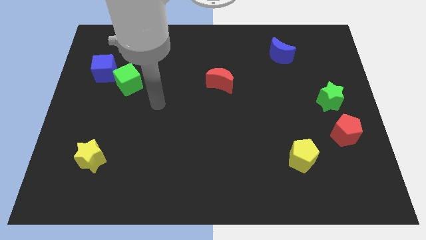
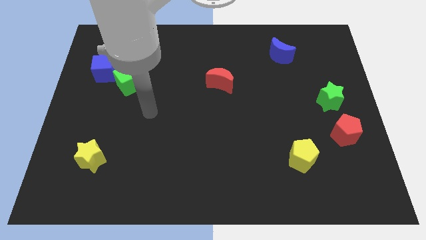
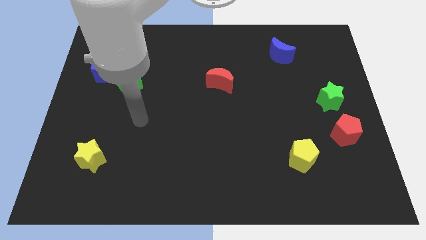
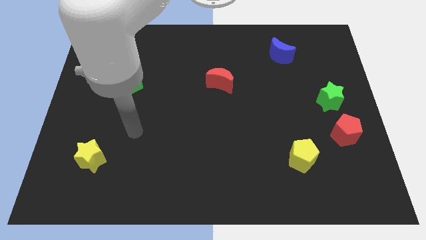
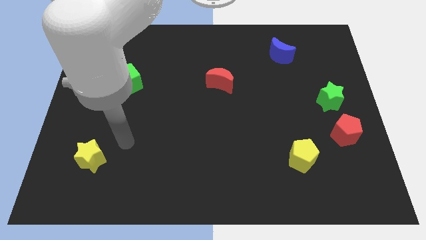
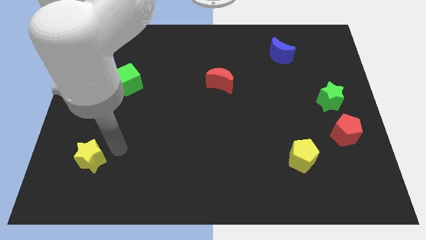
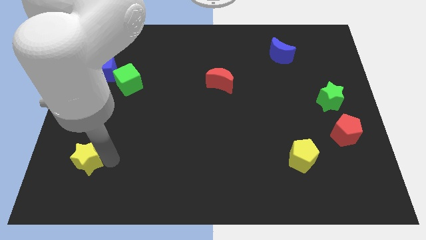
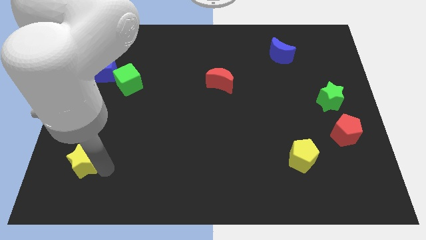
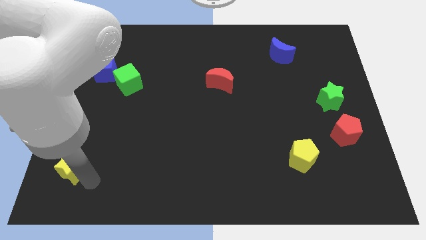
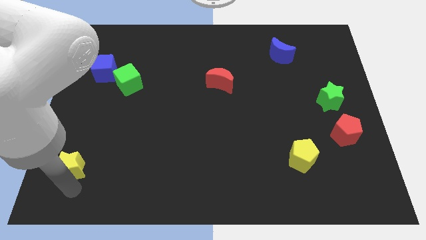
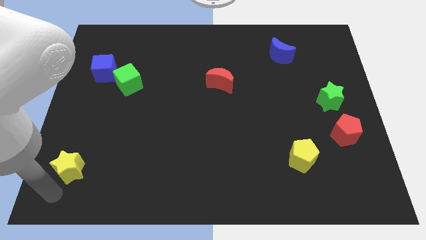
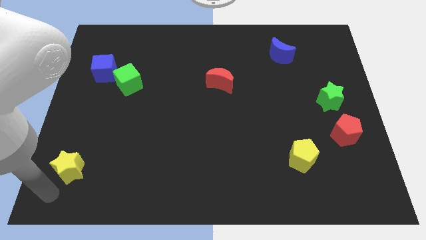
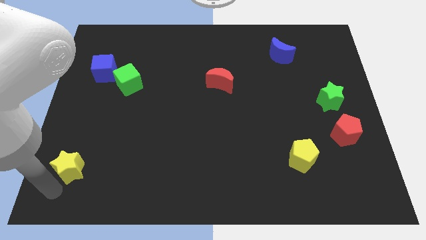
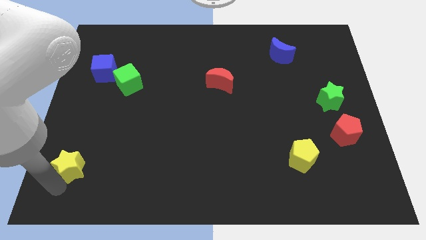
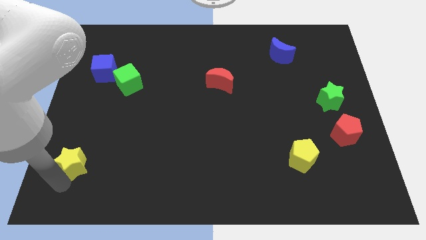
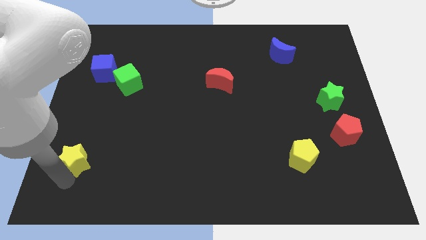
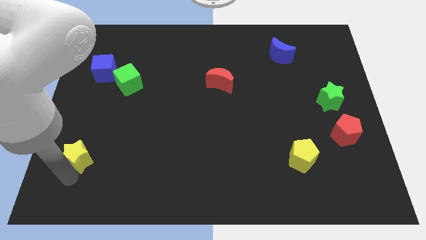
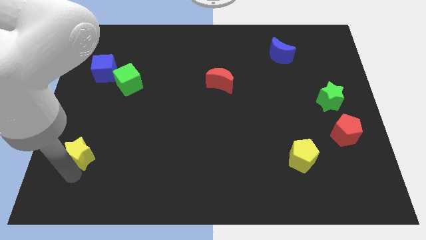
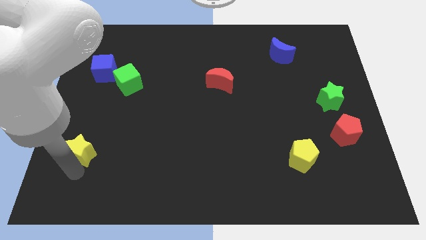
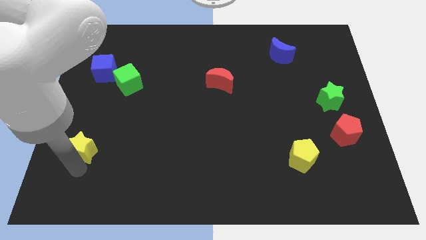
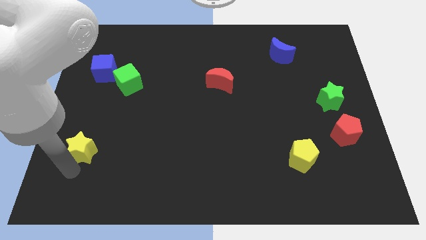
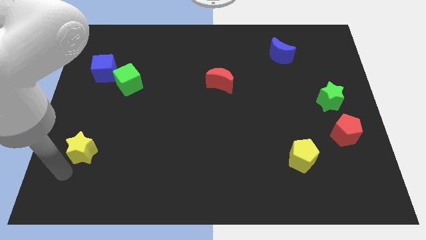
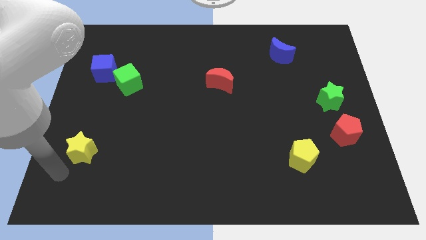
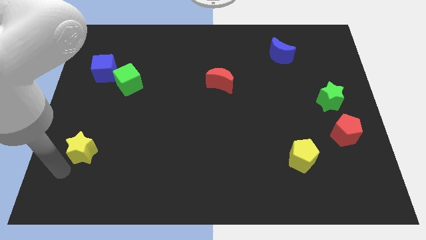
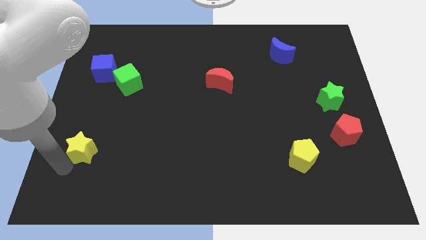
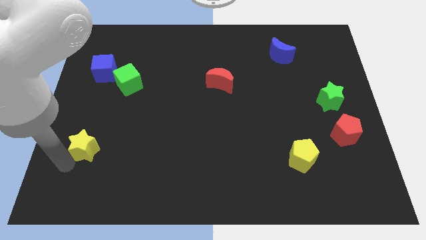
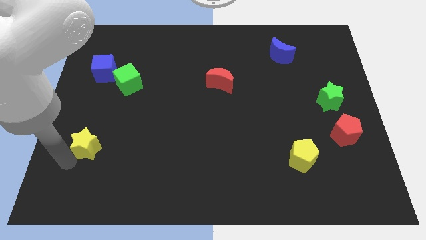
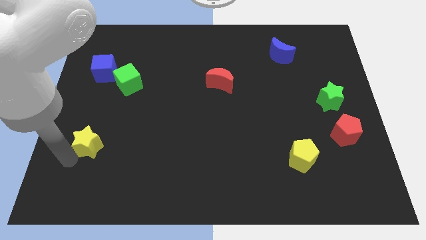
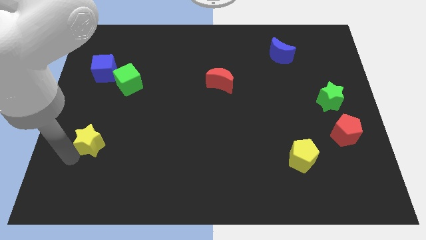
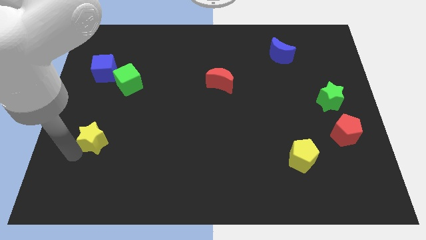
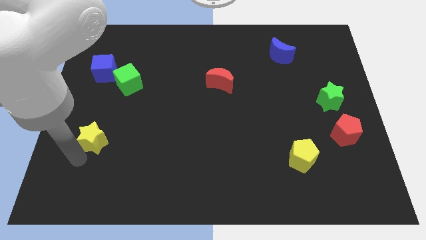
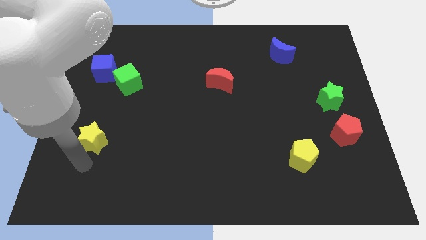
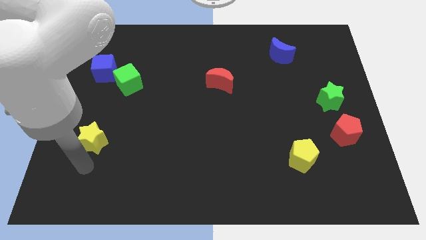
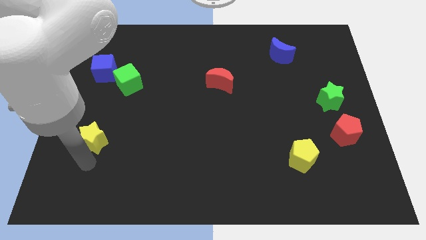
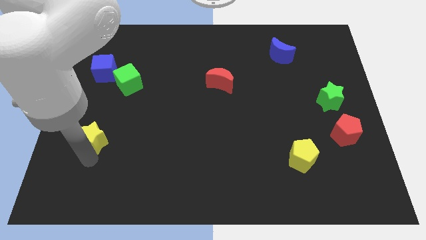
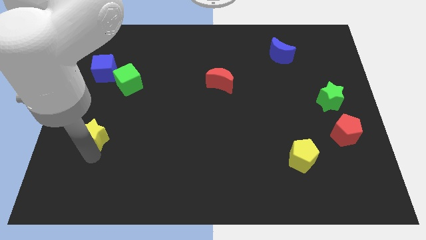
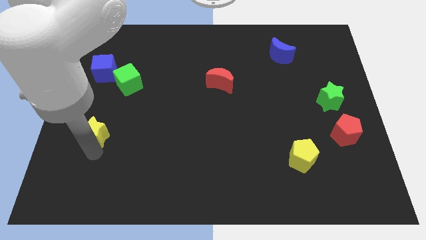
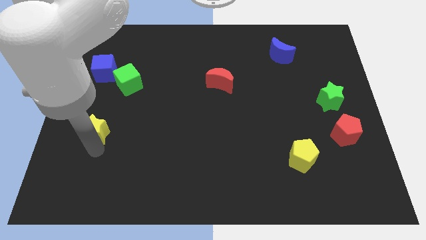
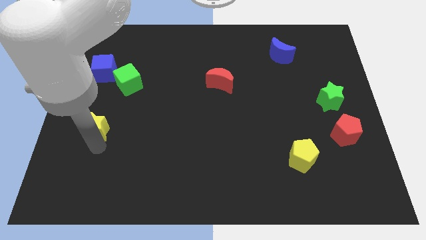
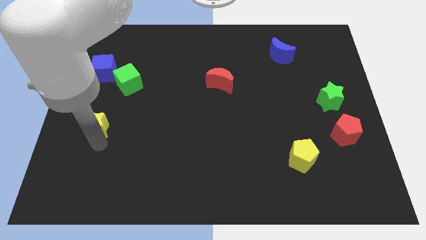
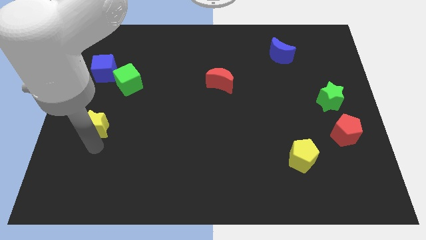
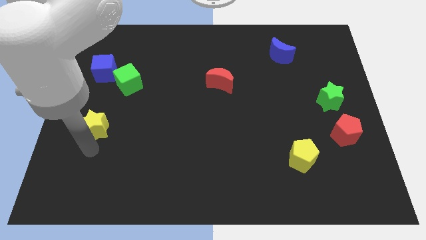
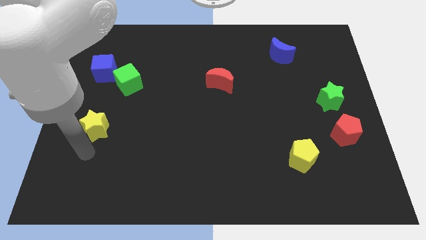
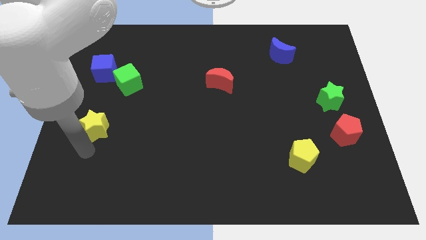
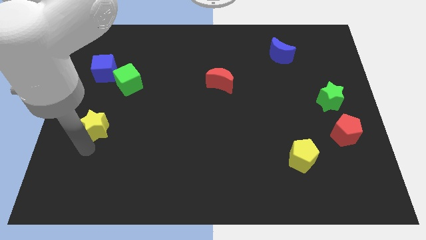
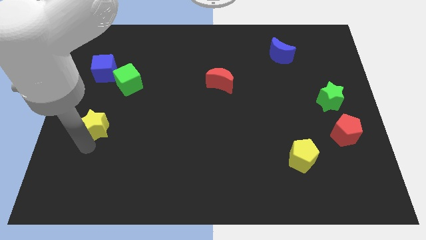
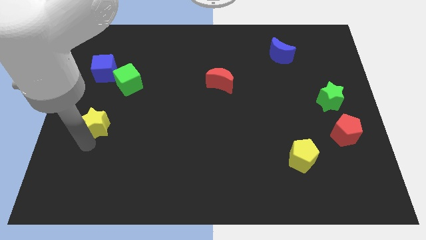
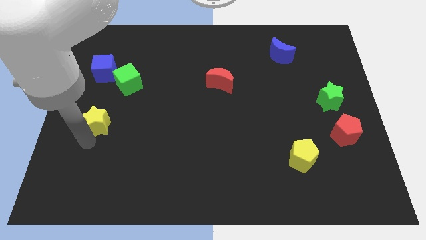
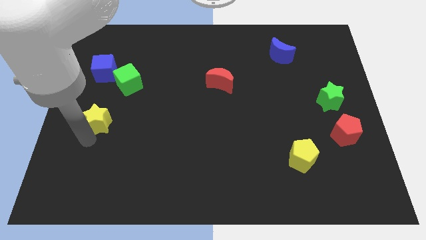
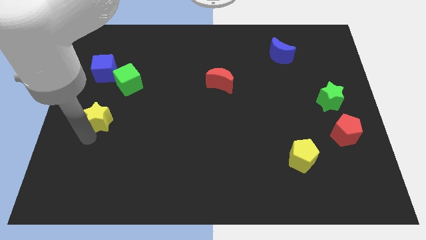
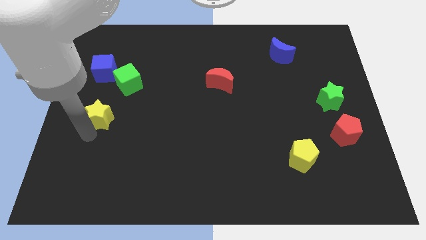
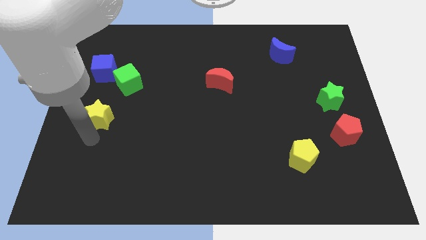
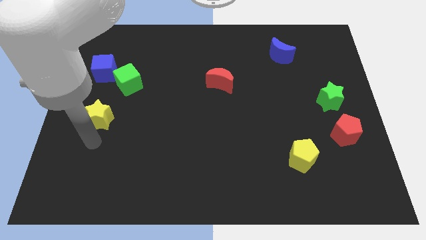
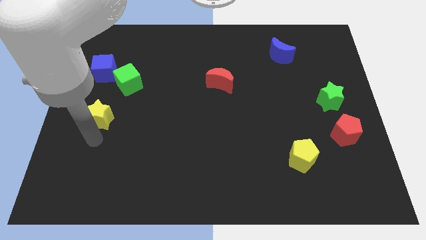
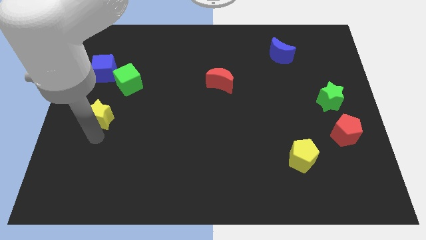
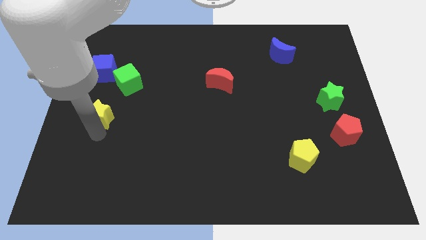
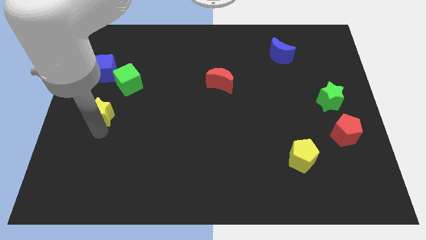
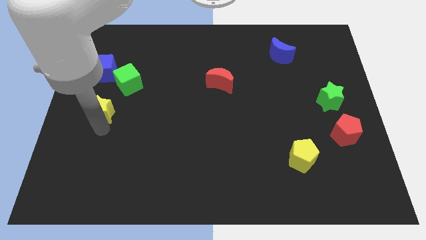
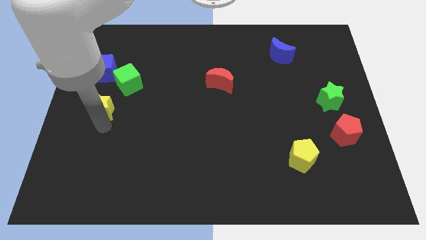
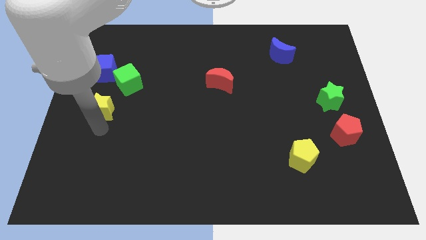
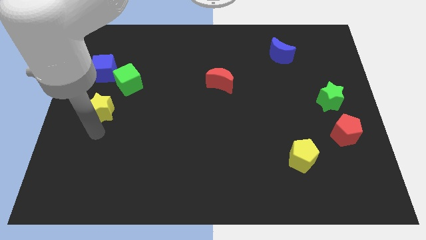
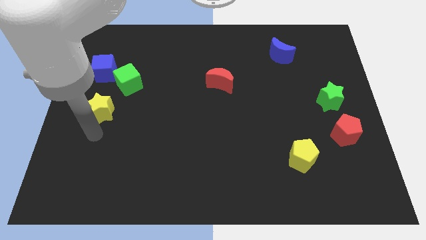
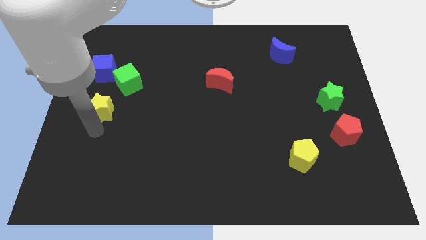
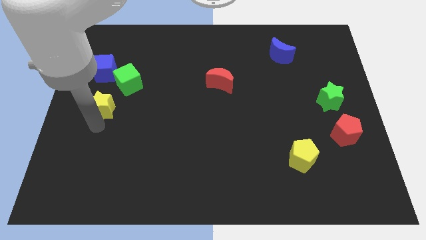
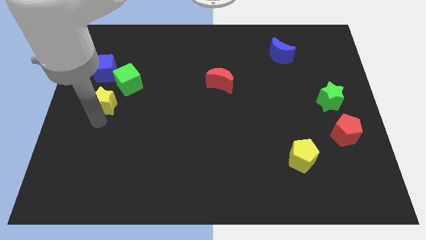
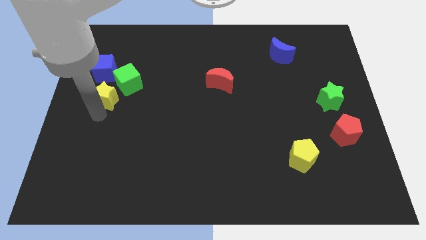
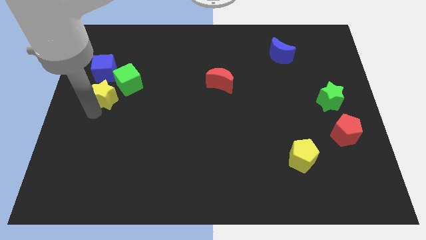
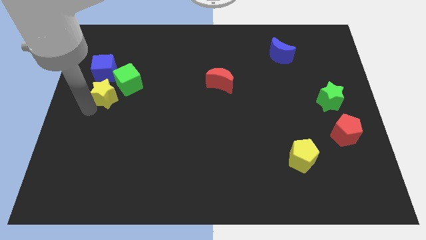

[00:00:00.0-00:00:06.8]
move the yellow star diagonally down and to the right of the blue cube

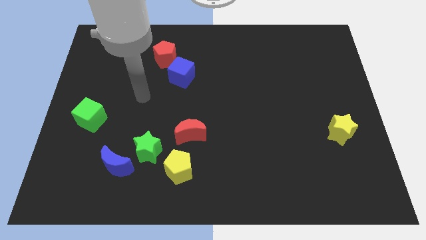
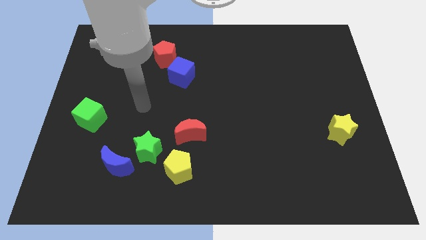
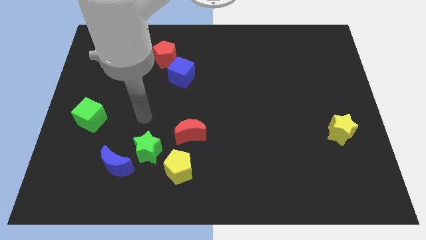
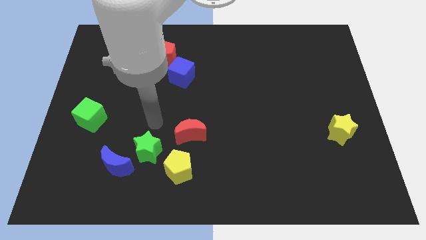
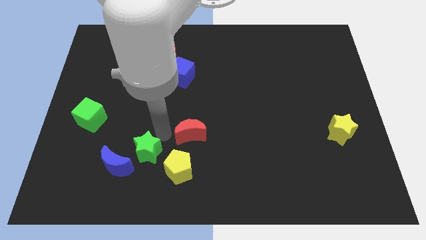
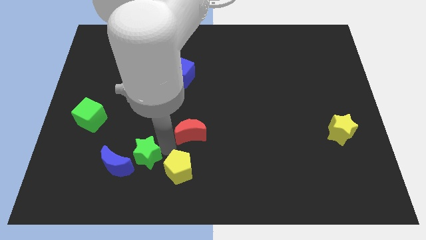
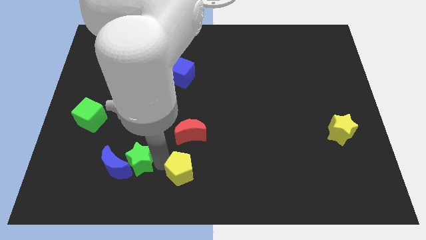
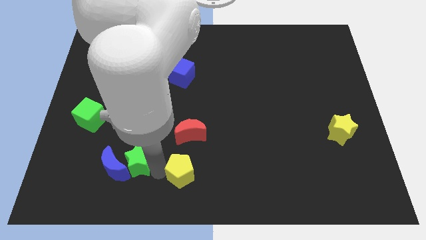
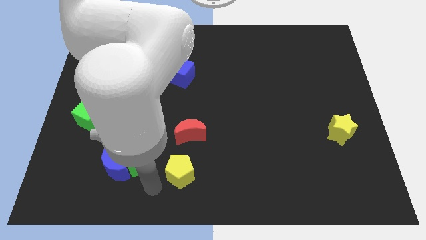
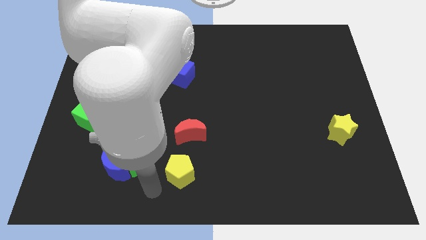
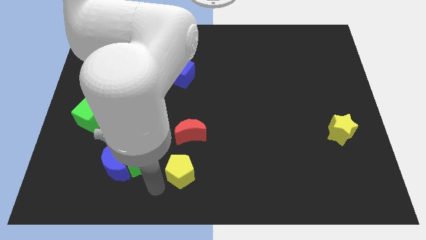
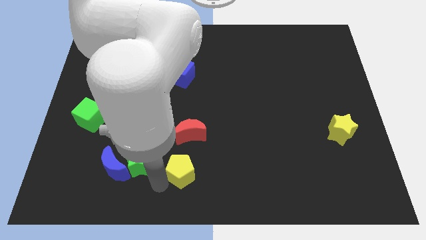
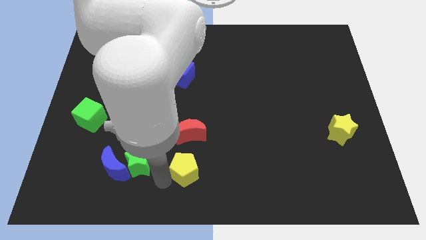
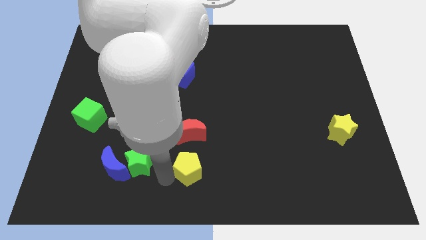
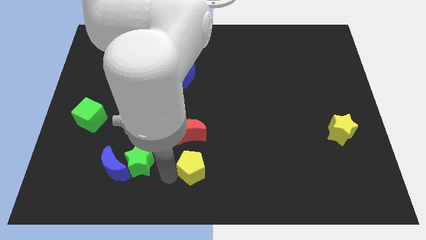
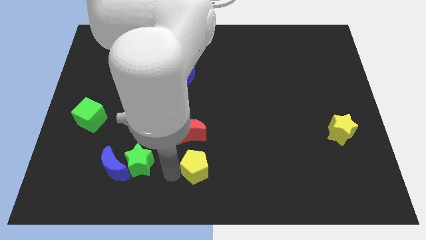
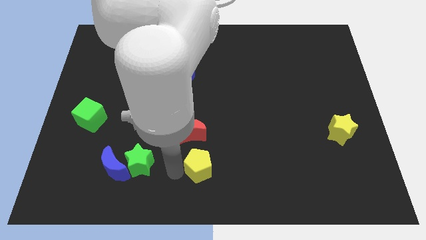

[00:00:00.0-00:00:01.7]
push the yellow pentagon to the bottom right side of the red moon
